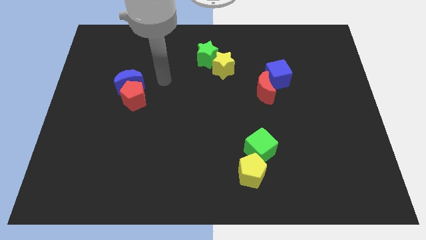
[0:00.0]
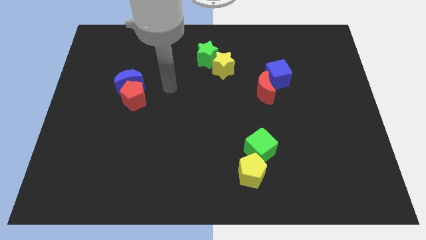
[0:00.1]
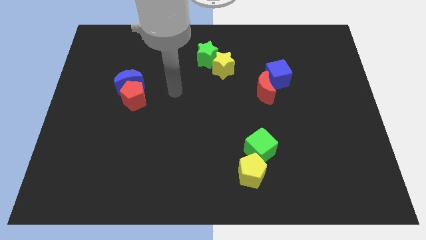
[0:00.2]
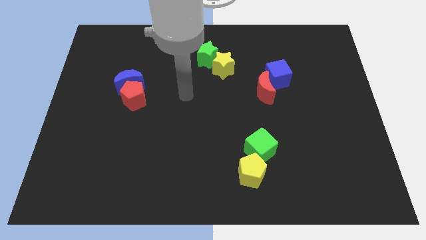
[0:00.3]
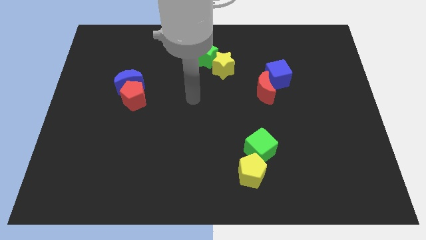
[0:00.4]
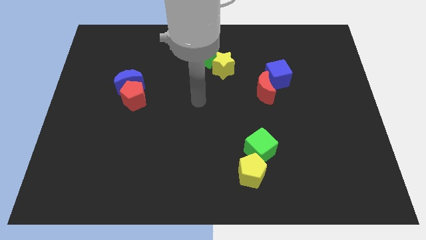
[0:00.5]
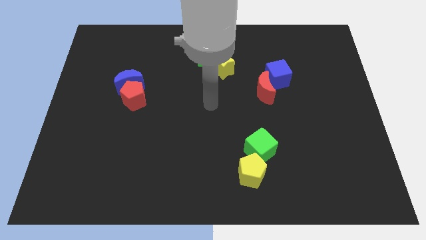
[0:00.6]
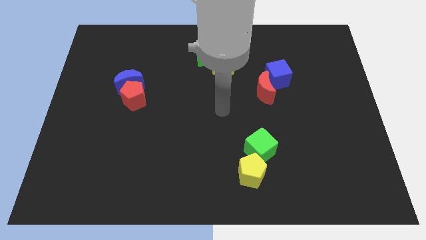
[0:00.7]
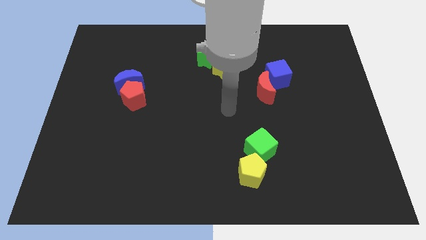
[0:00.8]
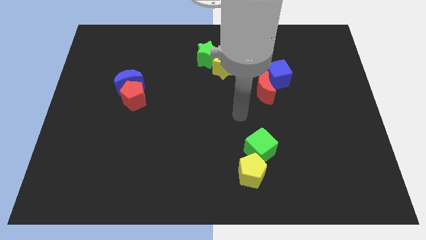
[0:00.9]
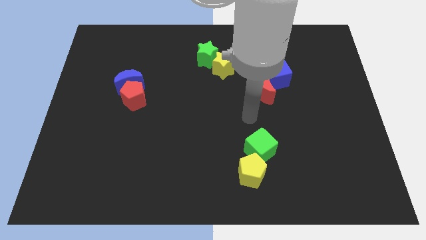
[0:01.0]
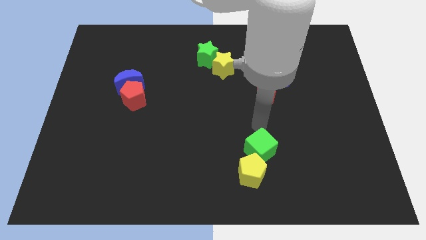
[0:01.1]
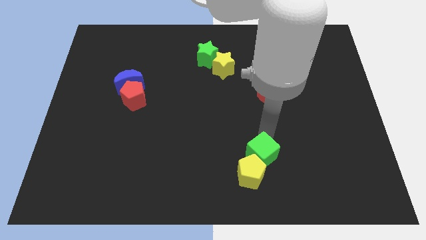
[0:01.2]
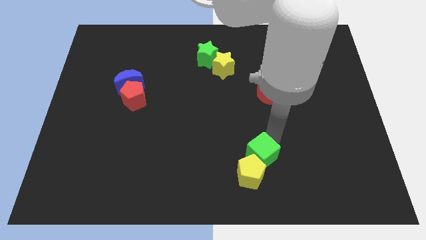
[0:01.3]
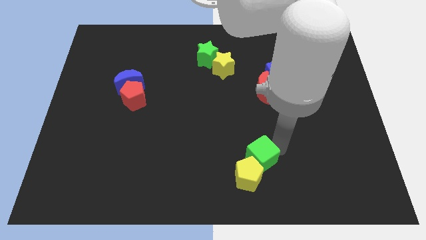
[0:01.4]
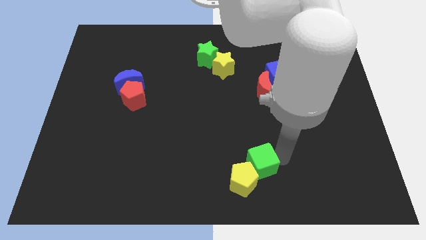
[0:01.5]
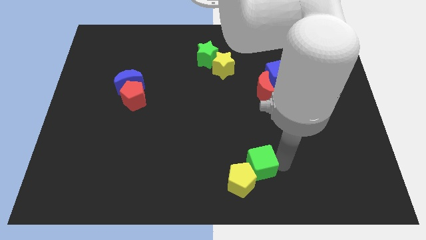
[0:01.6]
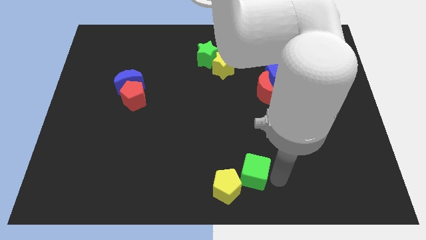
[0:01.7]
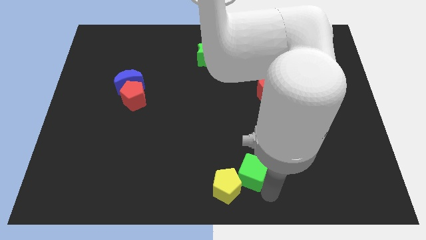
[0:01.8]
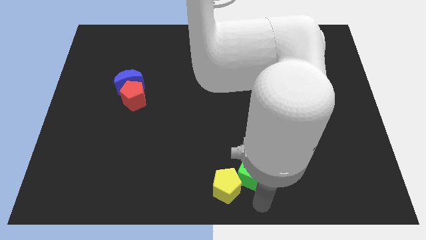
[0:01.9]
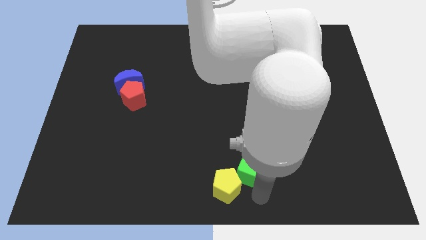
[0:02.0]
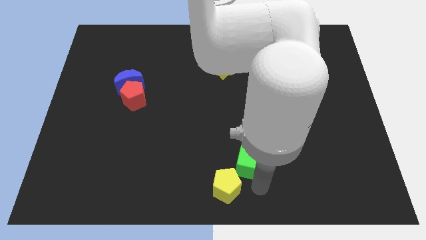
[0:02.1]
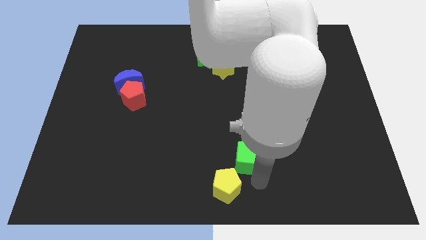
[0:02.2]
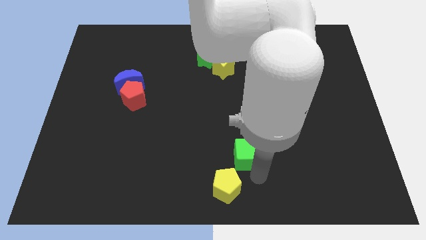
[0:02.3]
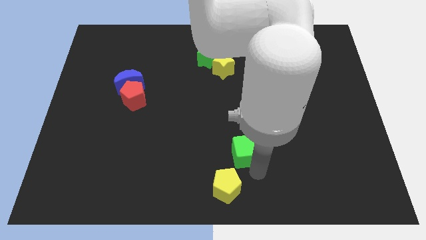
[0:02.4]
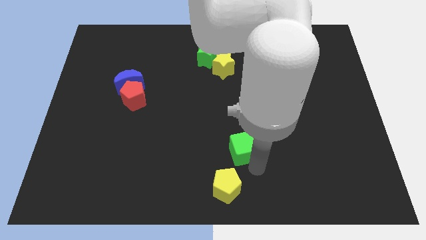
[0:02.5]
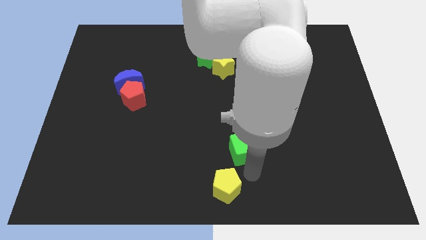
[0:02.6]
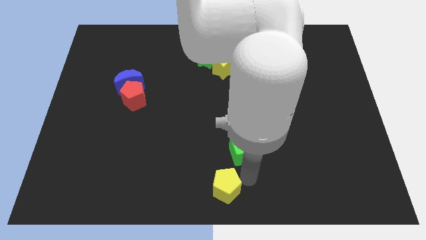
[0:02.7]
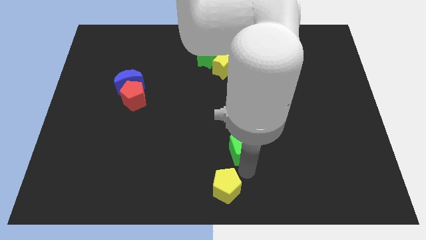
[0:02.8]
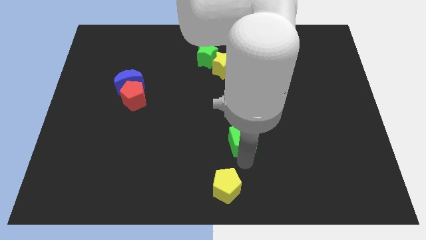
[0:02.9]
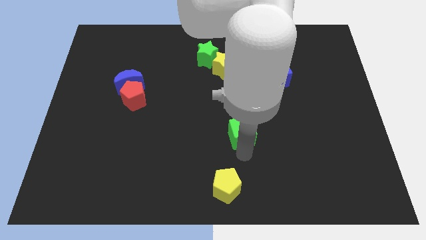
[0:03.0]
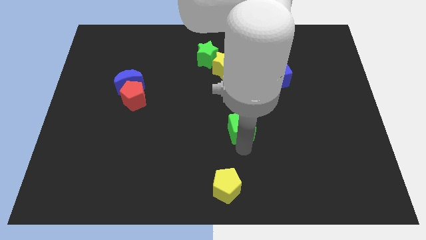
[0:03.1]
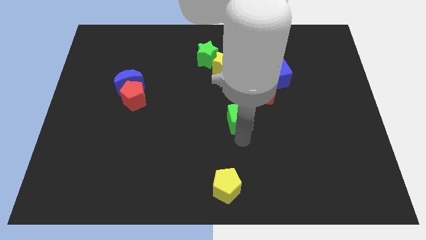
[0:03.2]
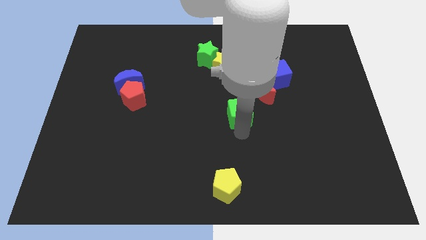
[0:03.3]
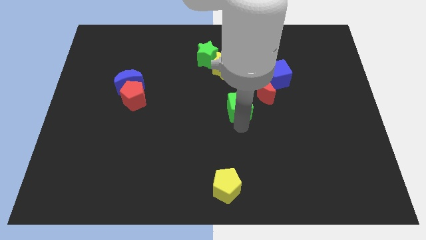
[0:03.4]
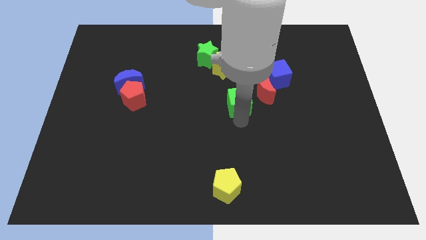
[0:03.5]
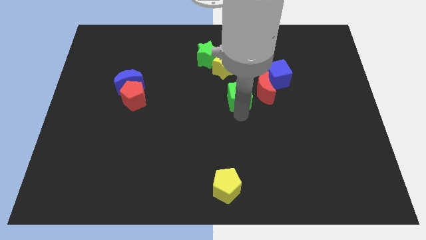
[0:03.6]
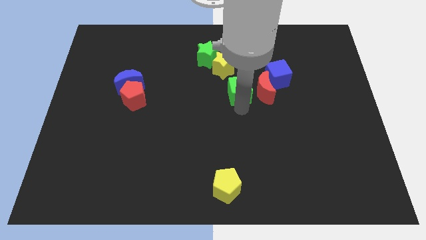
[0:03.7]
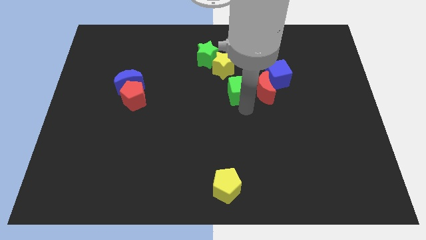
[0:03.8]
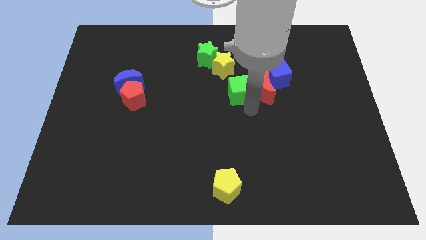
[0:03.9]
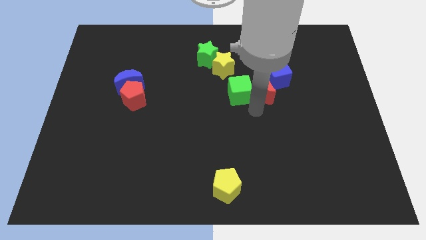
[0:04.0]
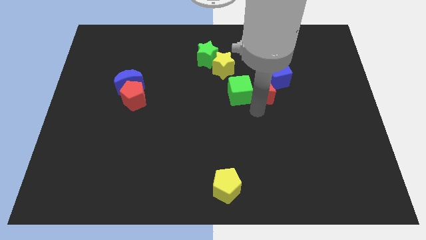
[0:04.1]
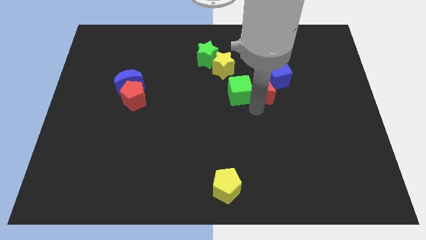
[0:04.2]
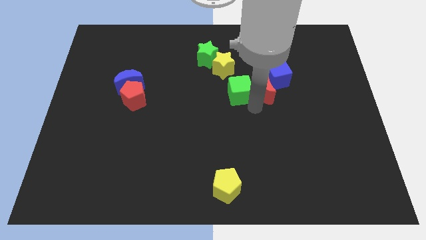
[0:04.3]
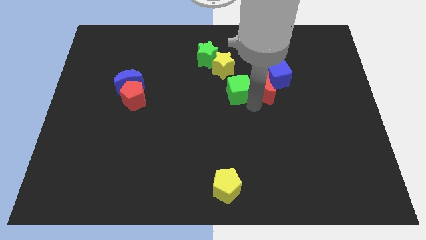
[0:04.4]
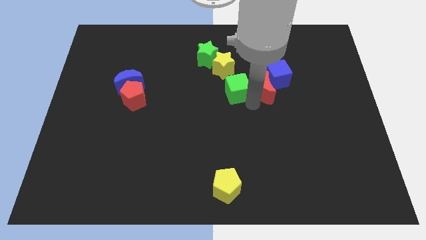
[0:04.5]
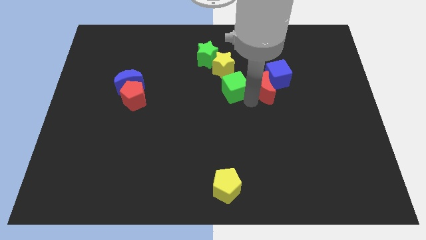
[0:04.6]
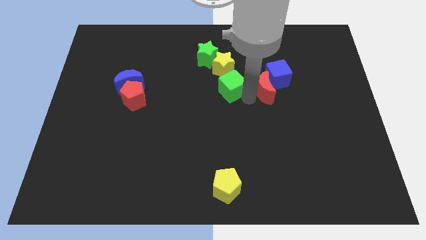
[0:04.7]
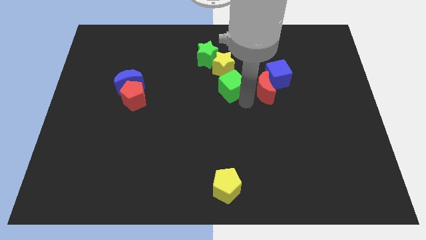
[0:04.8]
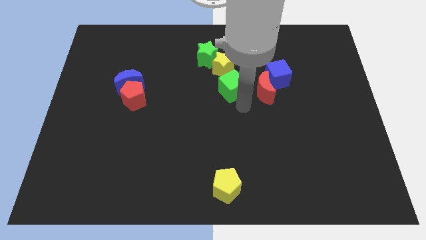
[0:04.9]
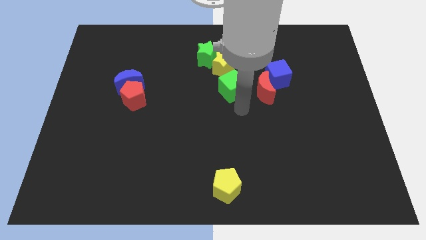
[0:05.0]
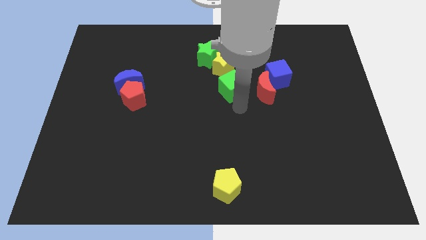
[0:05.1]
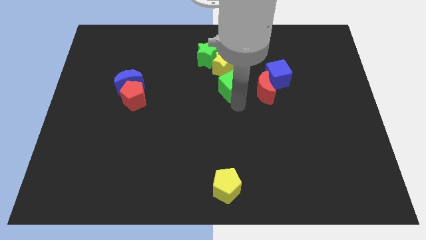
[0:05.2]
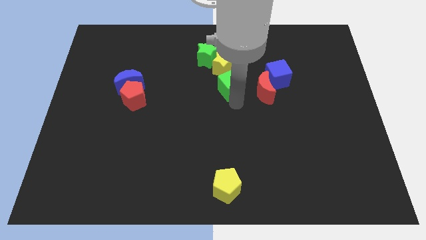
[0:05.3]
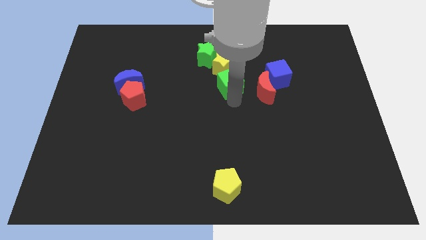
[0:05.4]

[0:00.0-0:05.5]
slide the green cube next to the yellow star
